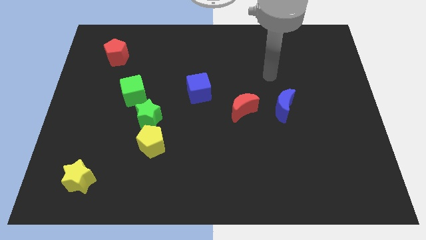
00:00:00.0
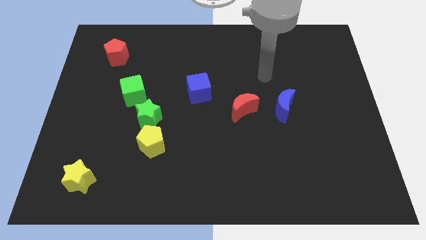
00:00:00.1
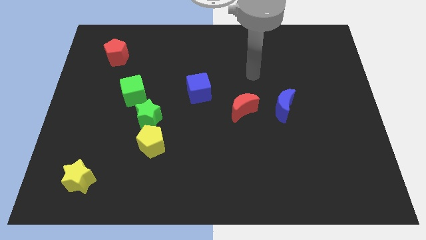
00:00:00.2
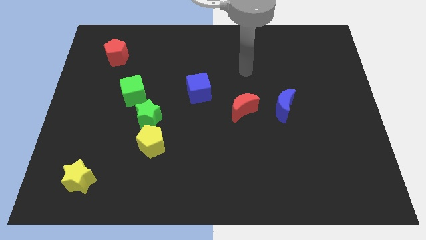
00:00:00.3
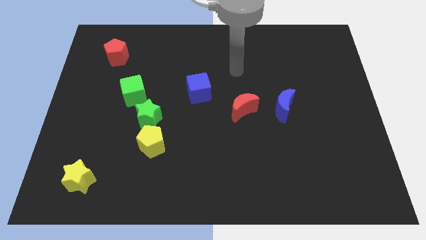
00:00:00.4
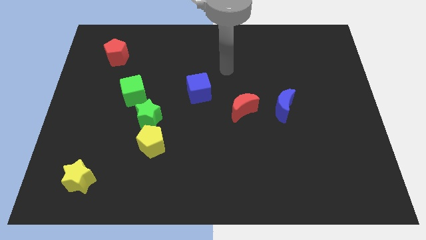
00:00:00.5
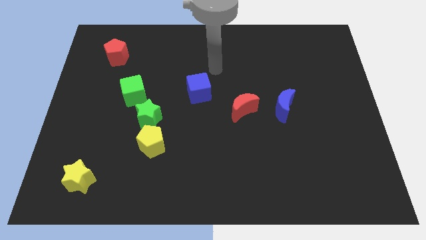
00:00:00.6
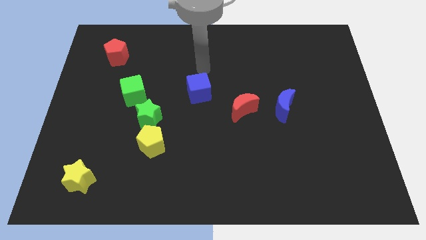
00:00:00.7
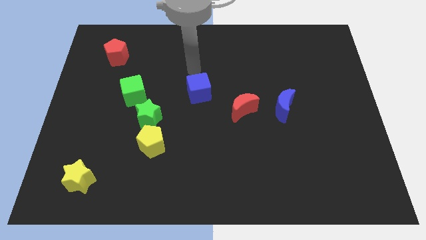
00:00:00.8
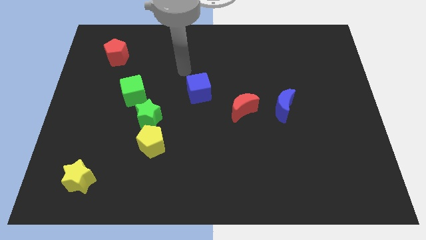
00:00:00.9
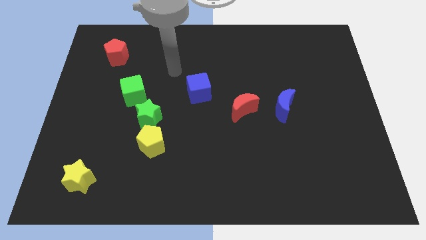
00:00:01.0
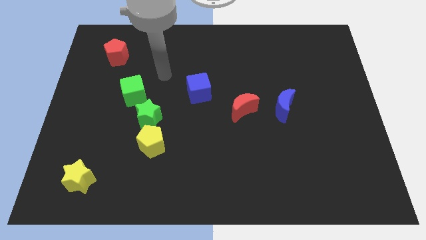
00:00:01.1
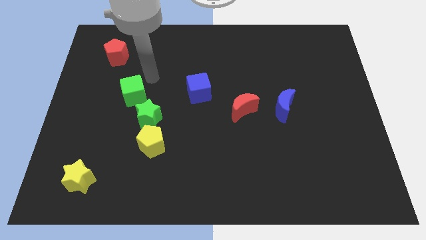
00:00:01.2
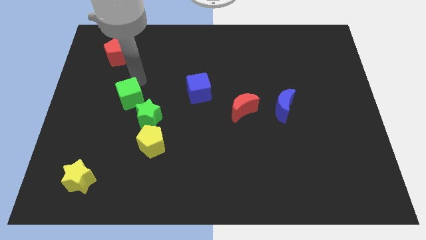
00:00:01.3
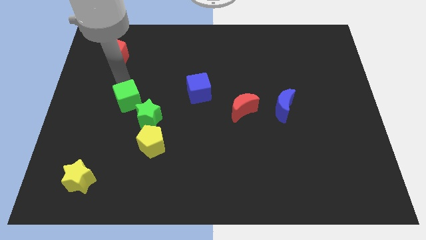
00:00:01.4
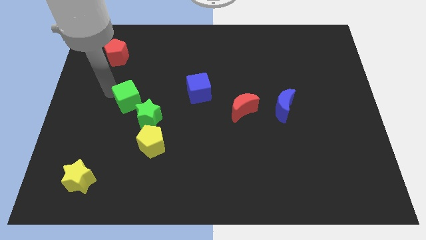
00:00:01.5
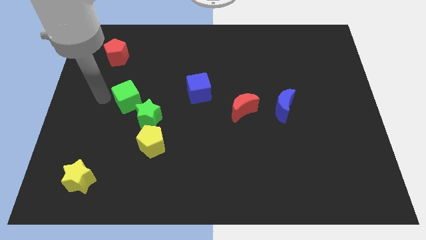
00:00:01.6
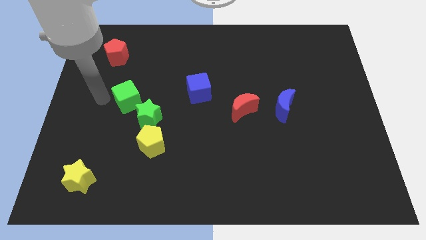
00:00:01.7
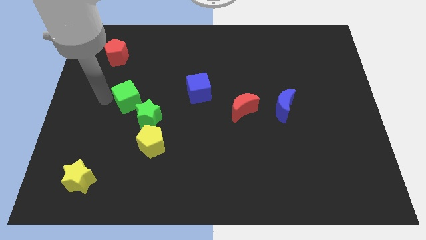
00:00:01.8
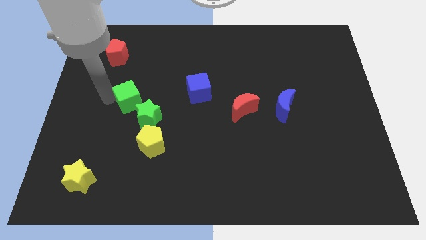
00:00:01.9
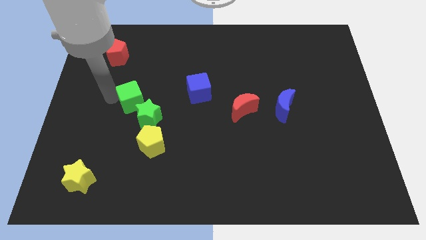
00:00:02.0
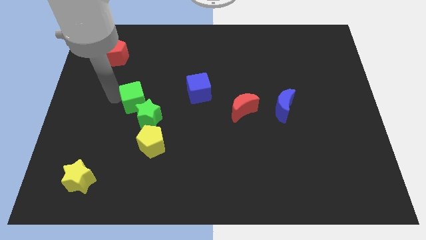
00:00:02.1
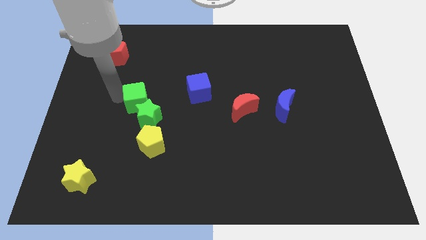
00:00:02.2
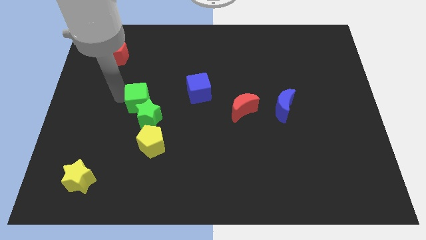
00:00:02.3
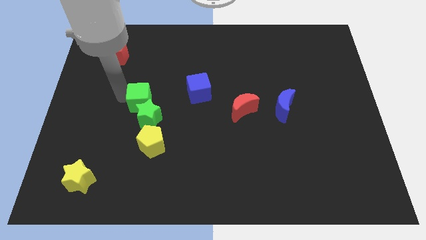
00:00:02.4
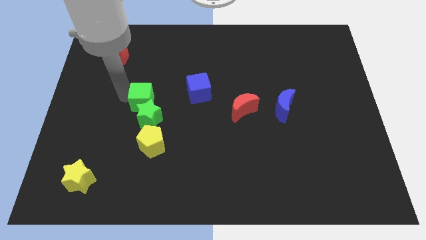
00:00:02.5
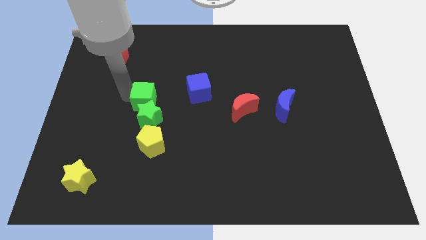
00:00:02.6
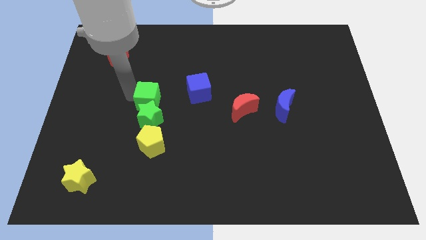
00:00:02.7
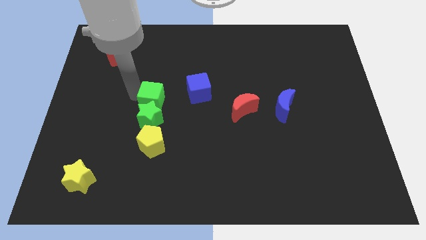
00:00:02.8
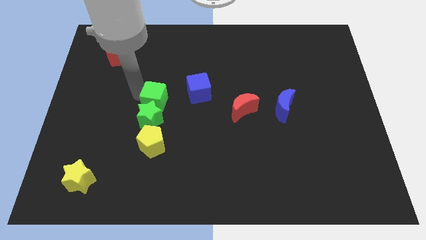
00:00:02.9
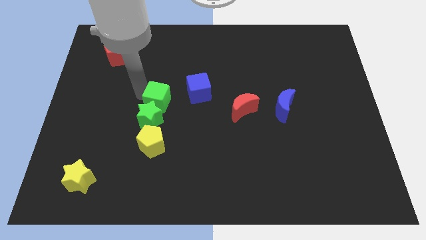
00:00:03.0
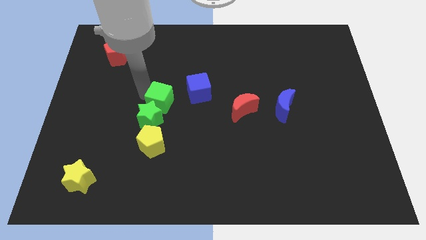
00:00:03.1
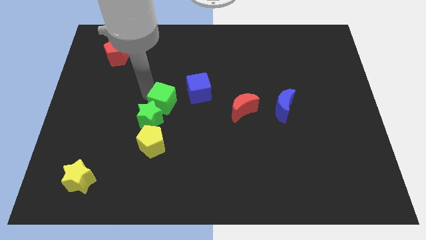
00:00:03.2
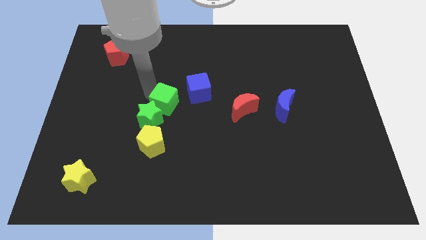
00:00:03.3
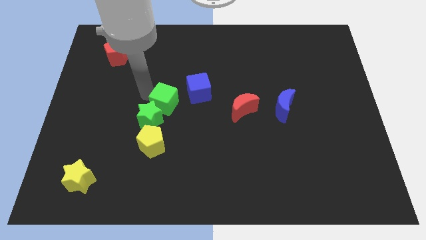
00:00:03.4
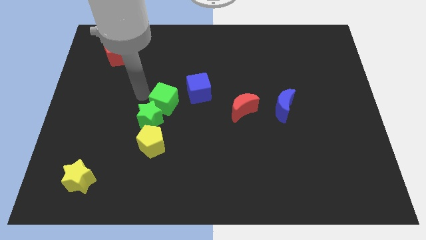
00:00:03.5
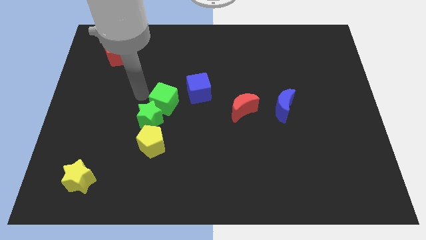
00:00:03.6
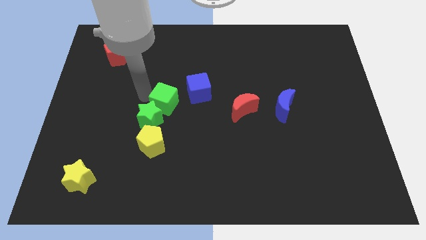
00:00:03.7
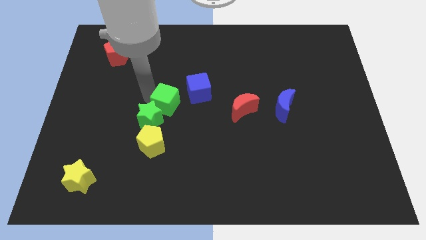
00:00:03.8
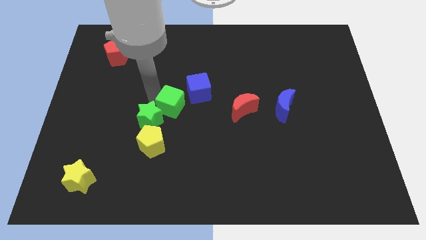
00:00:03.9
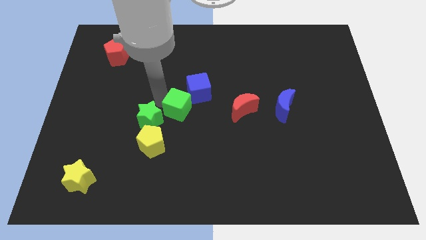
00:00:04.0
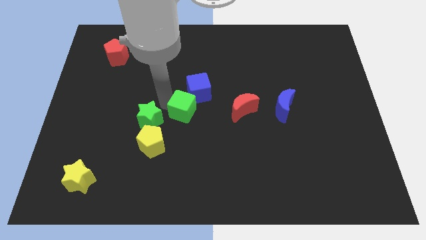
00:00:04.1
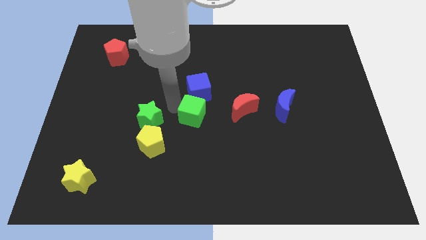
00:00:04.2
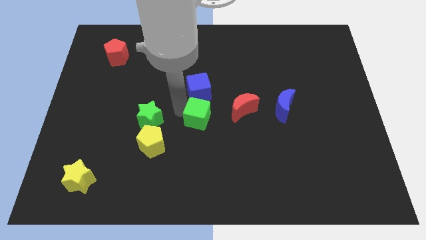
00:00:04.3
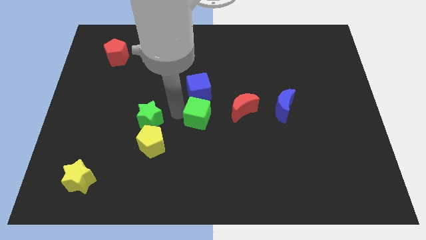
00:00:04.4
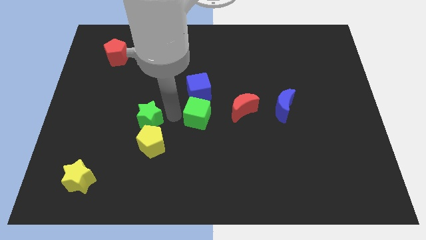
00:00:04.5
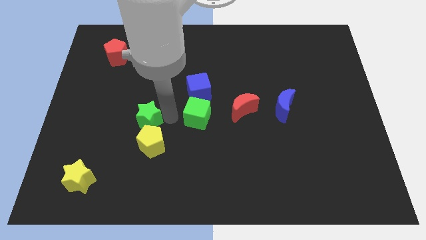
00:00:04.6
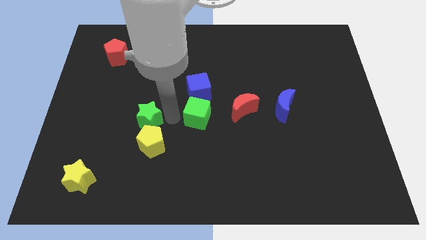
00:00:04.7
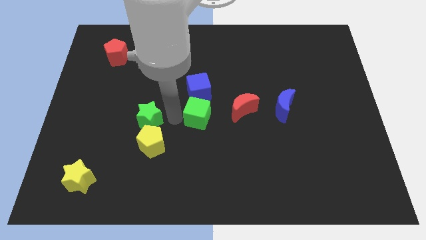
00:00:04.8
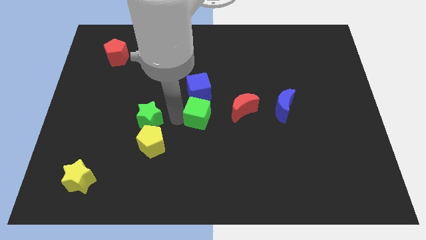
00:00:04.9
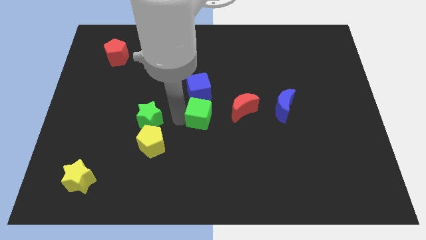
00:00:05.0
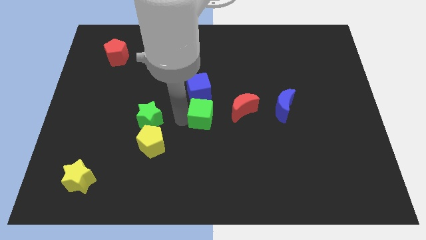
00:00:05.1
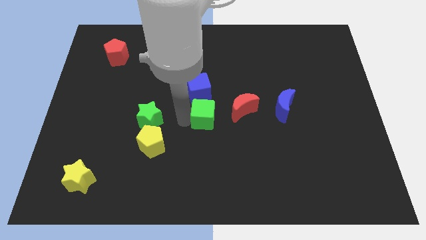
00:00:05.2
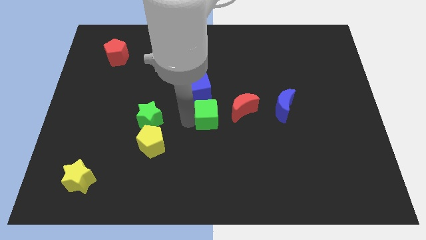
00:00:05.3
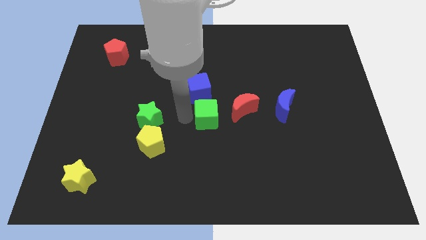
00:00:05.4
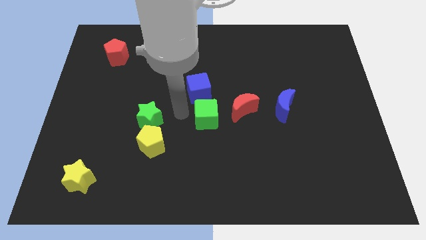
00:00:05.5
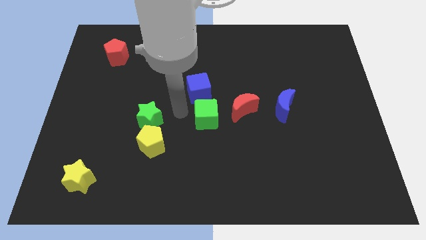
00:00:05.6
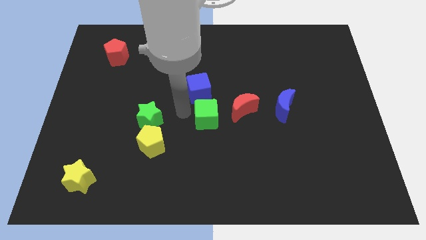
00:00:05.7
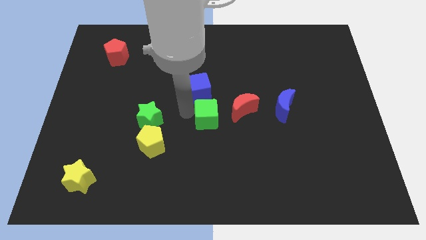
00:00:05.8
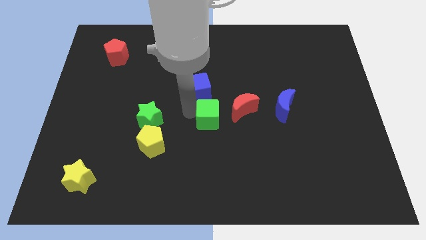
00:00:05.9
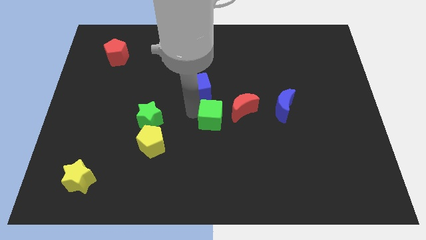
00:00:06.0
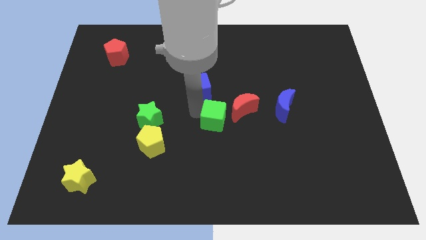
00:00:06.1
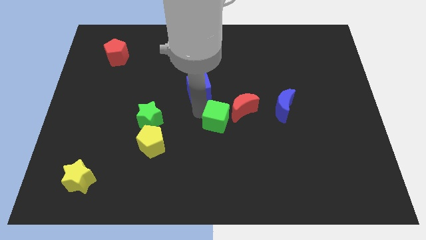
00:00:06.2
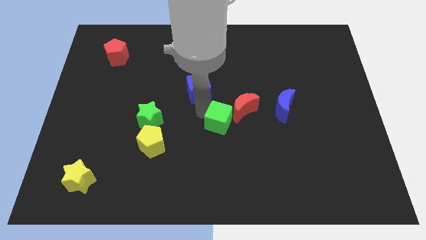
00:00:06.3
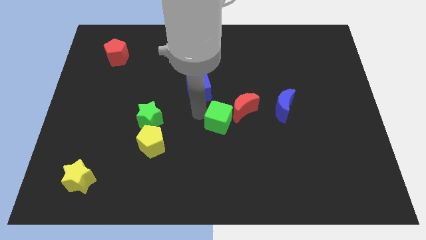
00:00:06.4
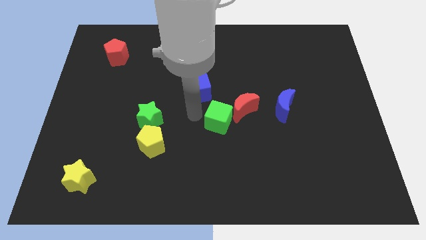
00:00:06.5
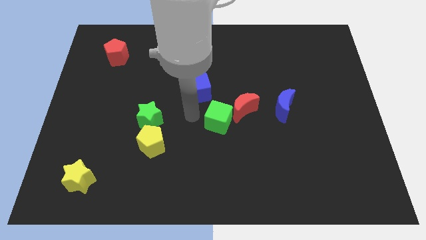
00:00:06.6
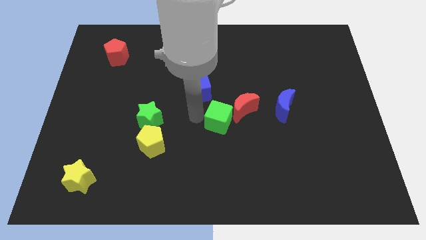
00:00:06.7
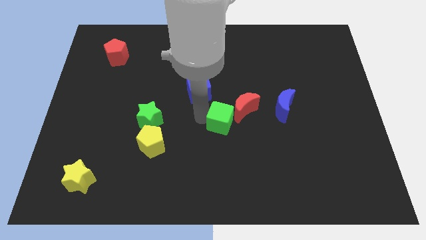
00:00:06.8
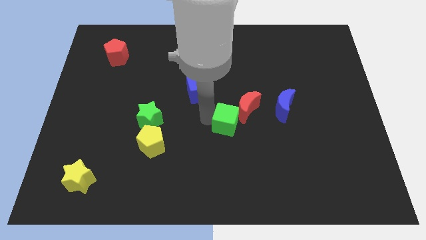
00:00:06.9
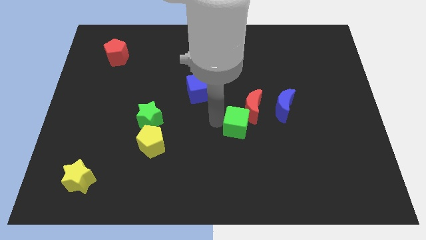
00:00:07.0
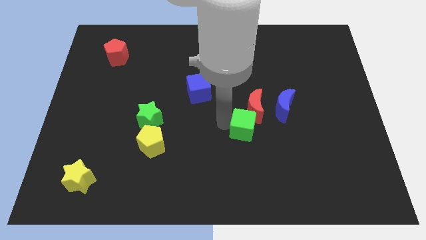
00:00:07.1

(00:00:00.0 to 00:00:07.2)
put the green cube diagonally down and to the left of the blue moon
